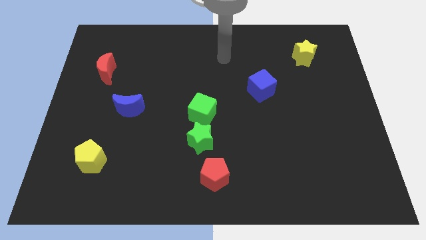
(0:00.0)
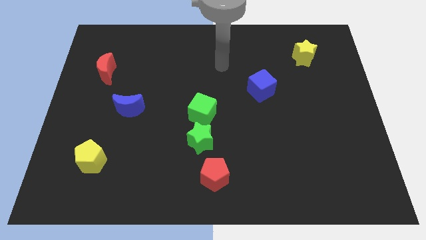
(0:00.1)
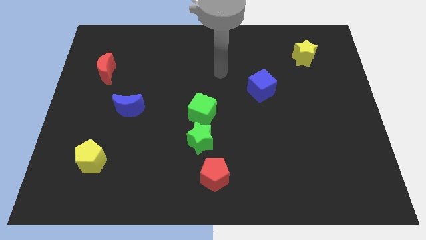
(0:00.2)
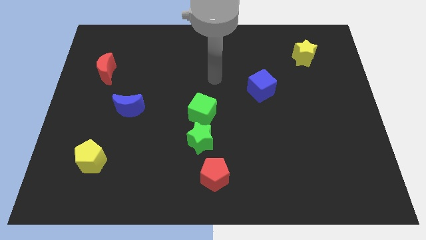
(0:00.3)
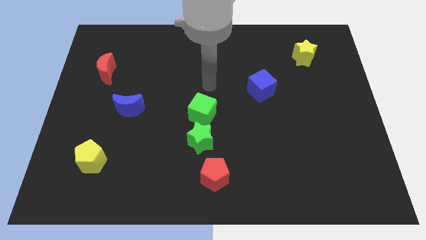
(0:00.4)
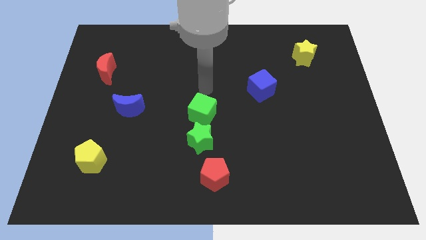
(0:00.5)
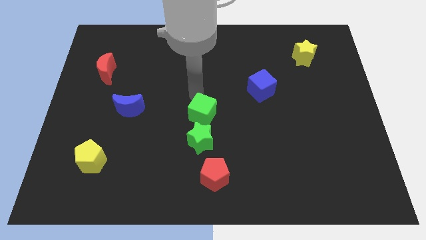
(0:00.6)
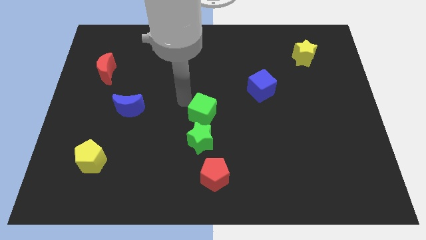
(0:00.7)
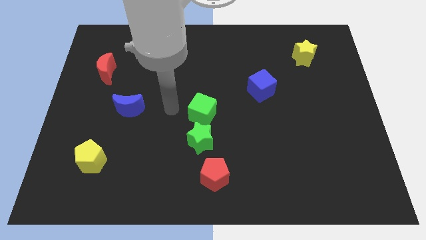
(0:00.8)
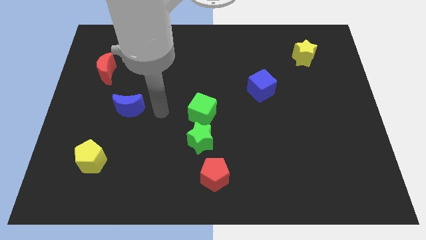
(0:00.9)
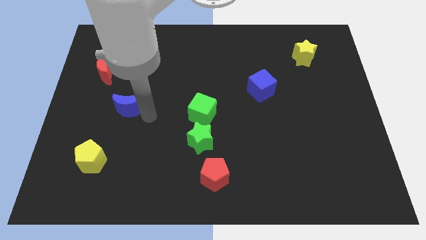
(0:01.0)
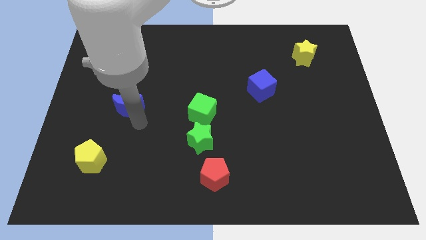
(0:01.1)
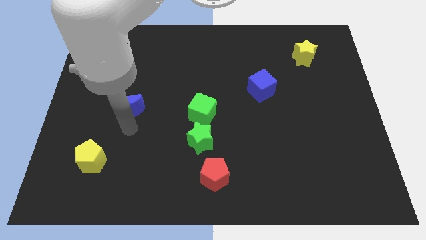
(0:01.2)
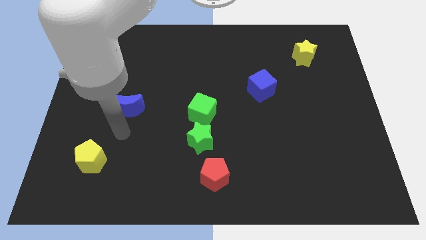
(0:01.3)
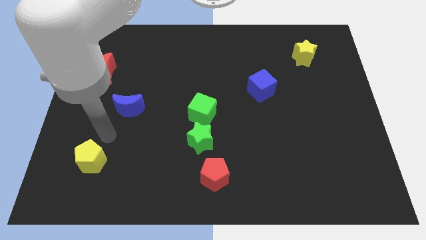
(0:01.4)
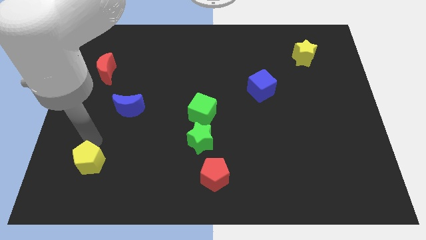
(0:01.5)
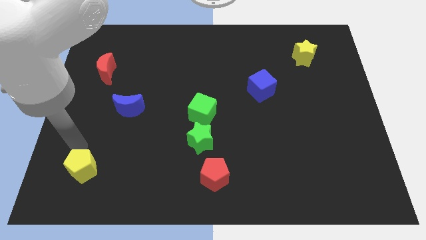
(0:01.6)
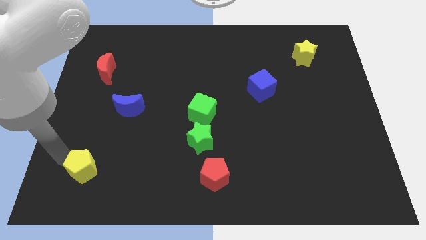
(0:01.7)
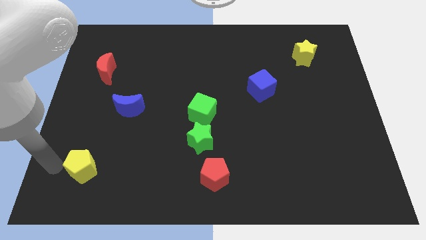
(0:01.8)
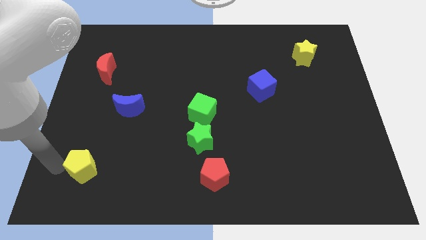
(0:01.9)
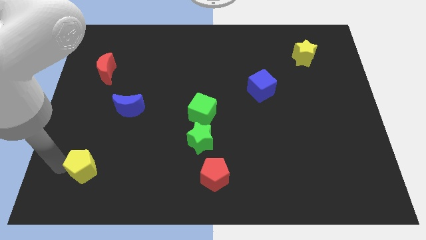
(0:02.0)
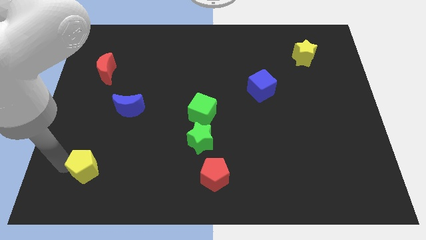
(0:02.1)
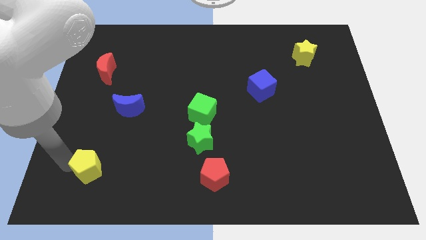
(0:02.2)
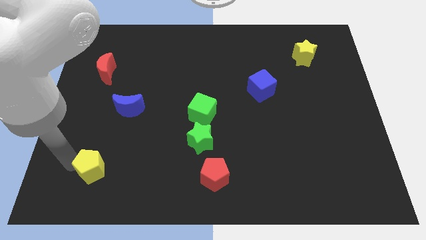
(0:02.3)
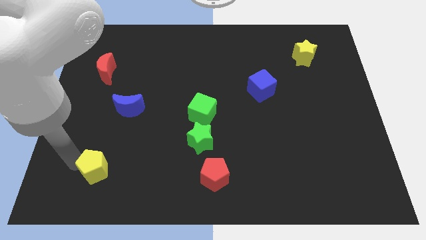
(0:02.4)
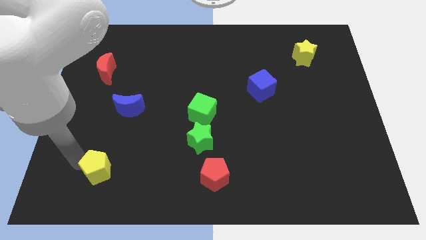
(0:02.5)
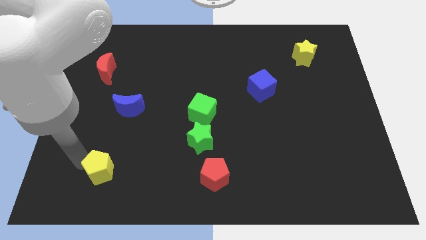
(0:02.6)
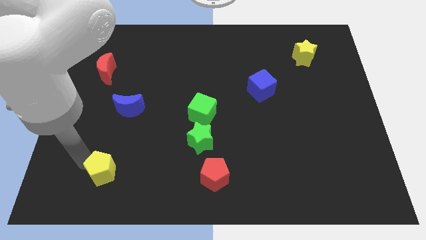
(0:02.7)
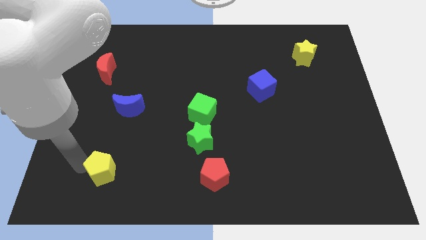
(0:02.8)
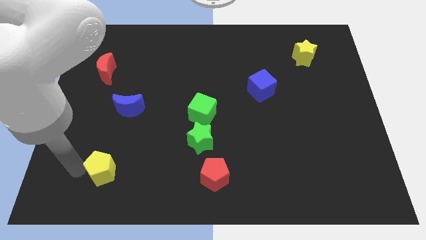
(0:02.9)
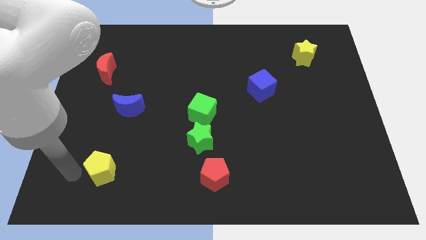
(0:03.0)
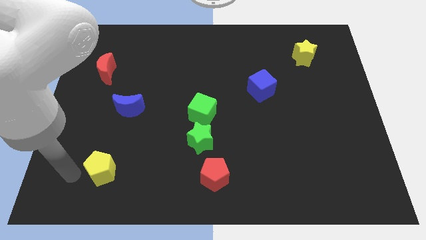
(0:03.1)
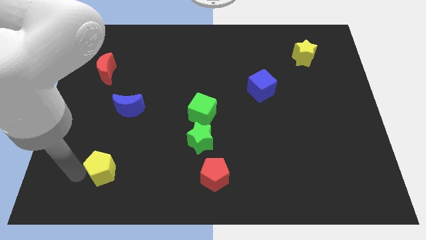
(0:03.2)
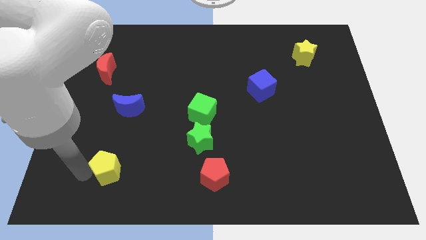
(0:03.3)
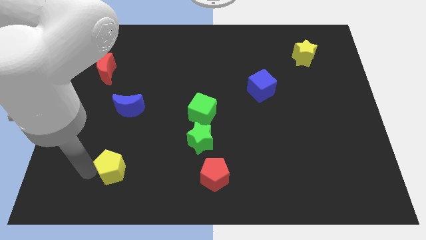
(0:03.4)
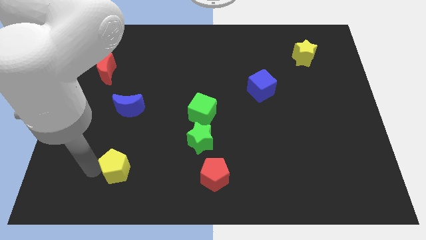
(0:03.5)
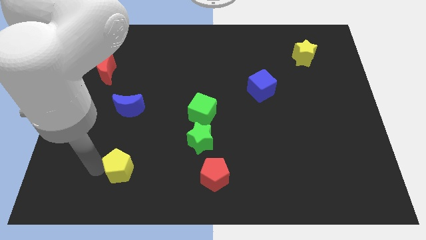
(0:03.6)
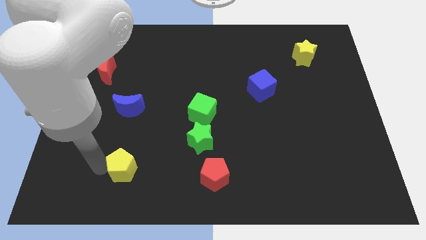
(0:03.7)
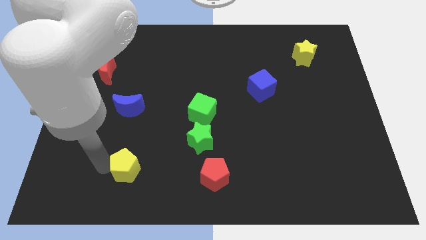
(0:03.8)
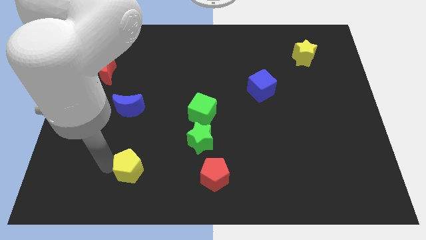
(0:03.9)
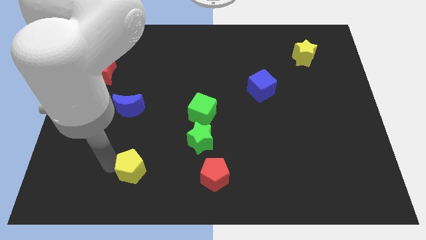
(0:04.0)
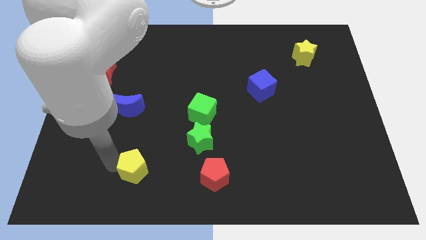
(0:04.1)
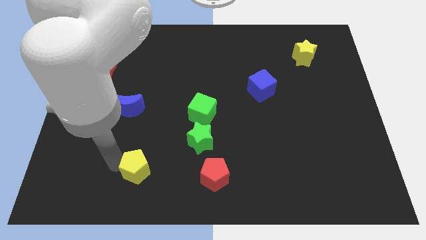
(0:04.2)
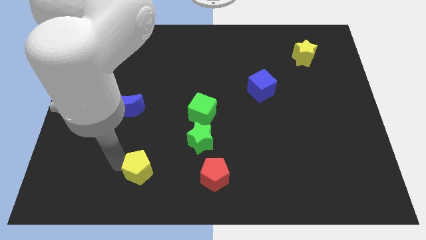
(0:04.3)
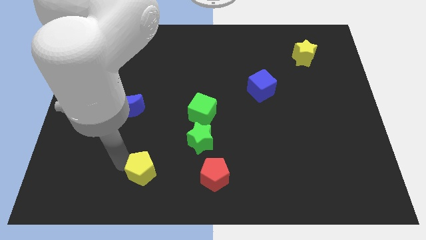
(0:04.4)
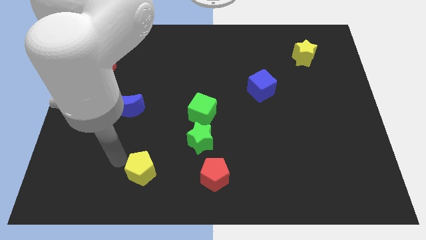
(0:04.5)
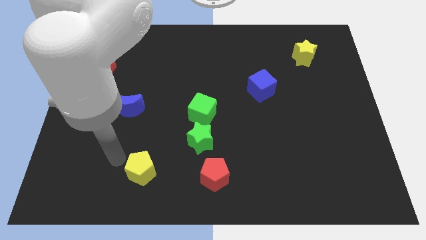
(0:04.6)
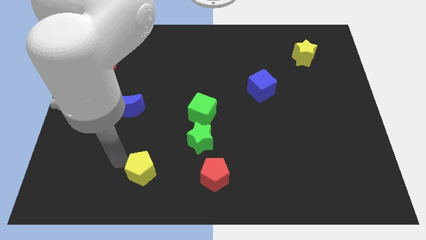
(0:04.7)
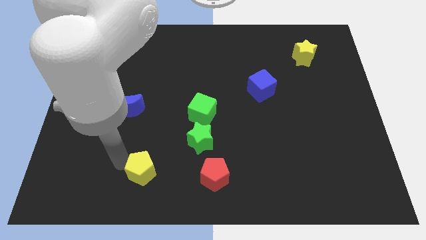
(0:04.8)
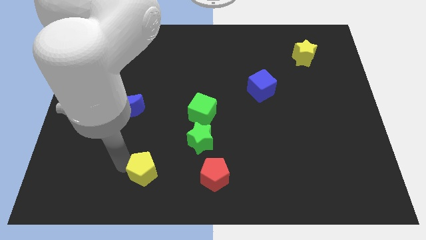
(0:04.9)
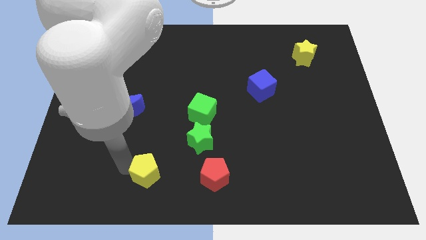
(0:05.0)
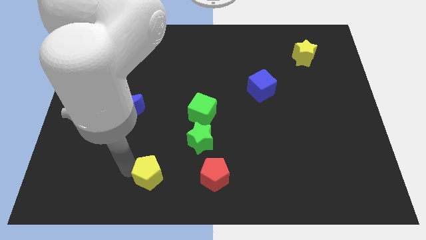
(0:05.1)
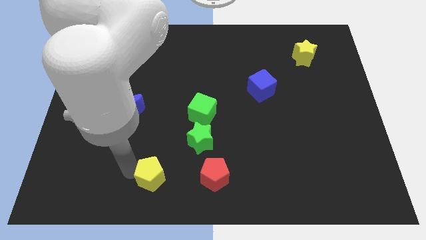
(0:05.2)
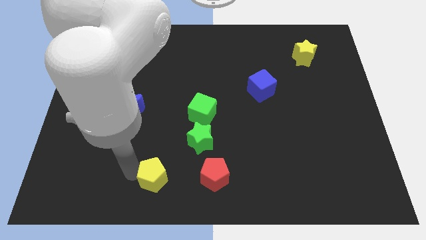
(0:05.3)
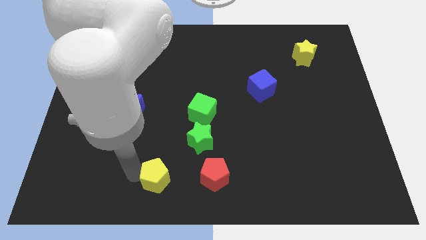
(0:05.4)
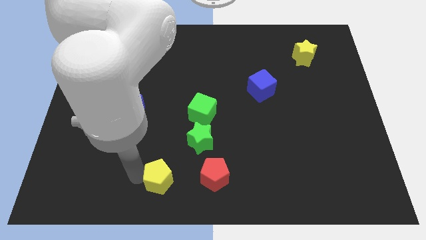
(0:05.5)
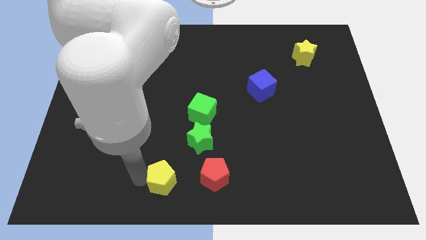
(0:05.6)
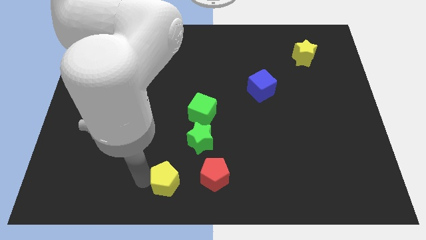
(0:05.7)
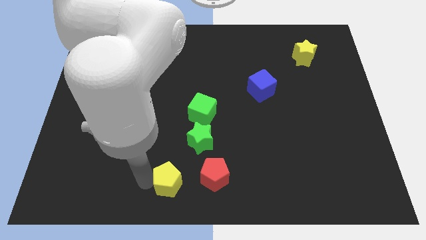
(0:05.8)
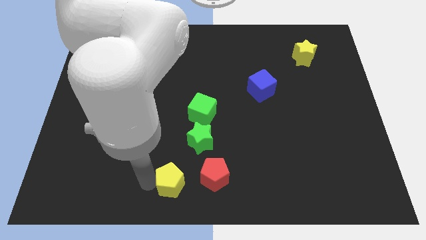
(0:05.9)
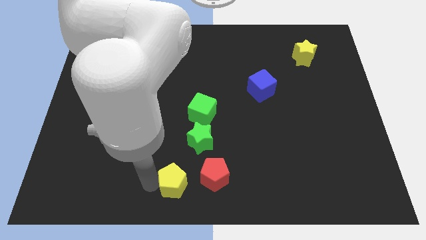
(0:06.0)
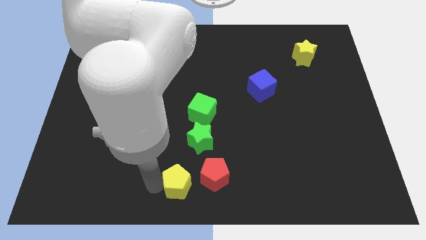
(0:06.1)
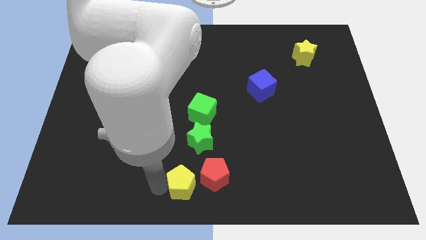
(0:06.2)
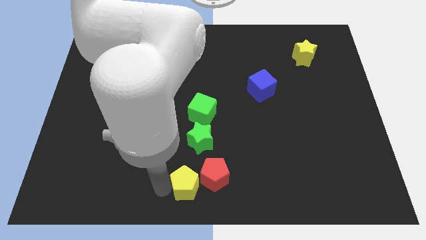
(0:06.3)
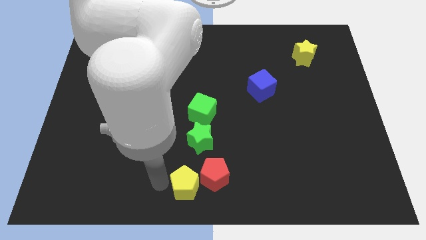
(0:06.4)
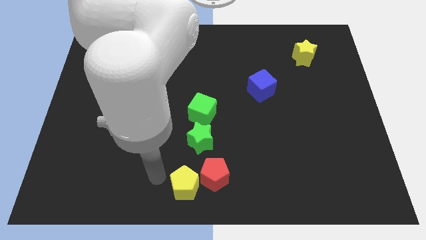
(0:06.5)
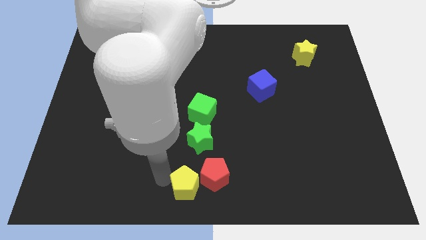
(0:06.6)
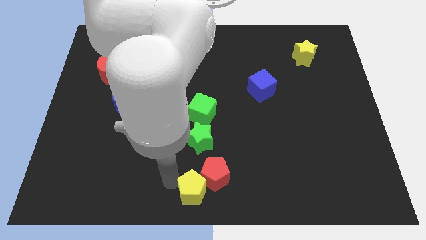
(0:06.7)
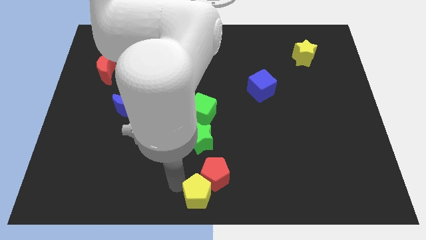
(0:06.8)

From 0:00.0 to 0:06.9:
move the yellow pentagon right

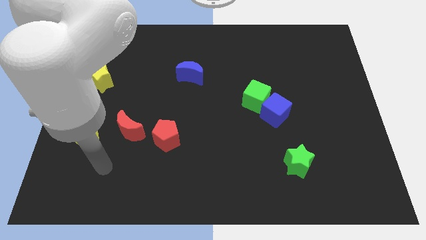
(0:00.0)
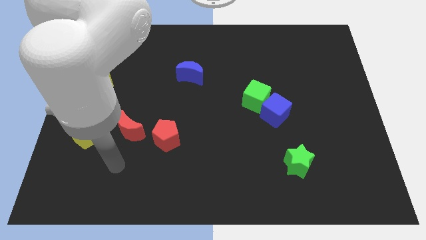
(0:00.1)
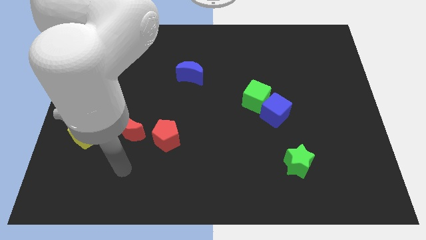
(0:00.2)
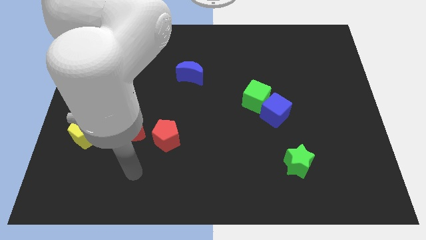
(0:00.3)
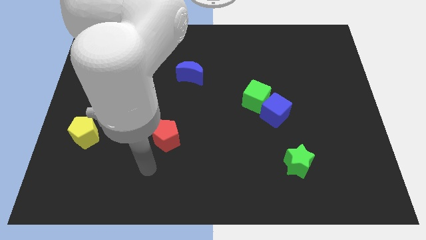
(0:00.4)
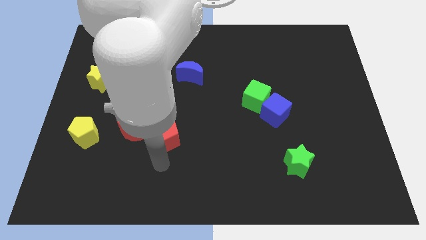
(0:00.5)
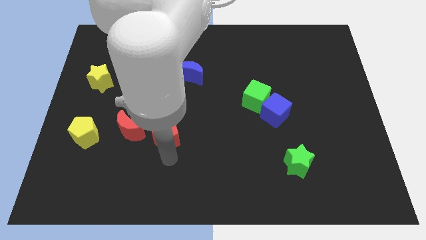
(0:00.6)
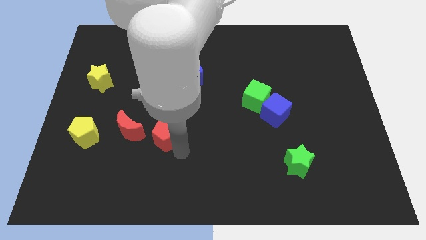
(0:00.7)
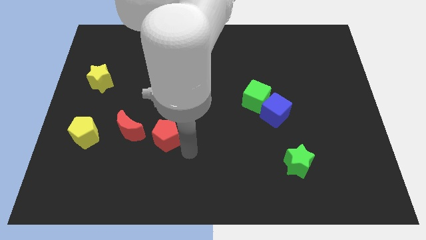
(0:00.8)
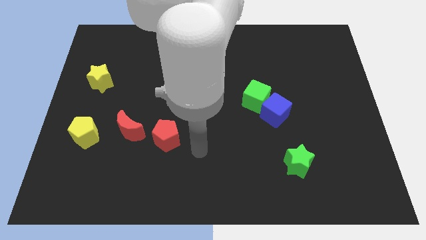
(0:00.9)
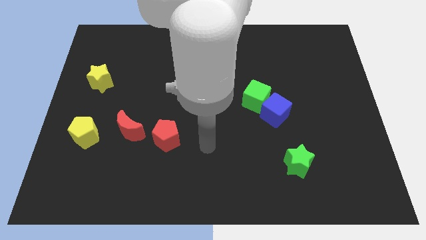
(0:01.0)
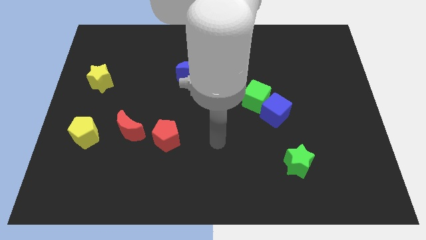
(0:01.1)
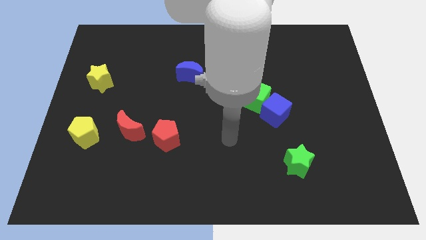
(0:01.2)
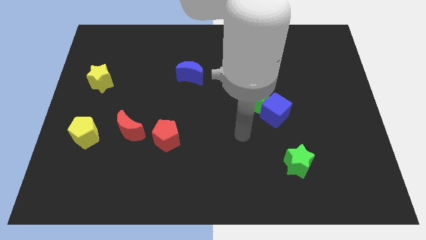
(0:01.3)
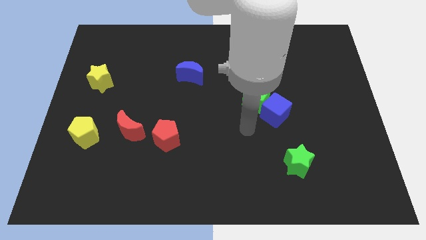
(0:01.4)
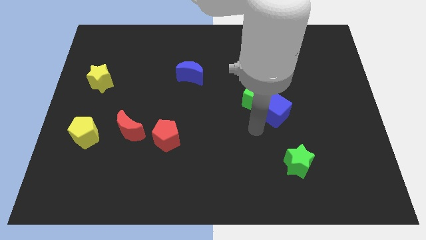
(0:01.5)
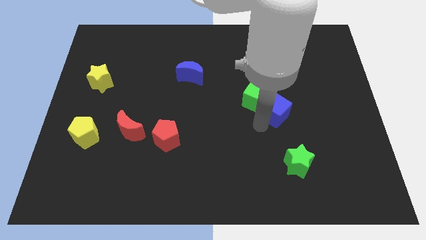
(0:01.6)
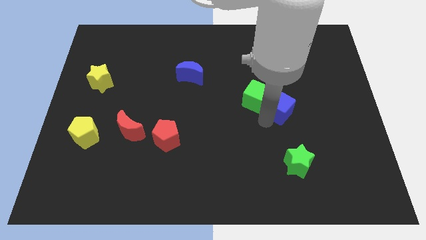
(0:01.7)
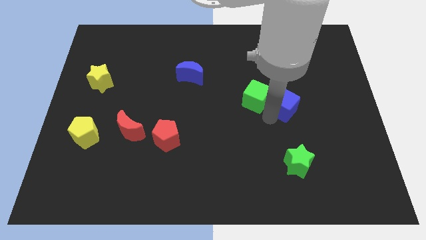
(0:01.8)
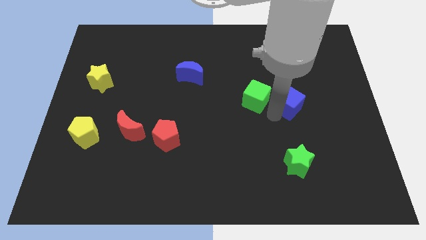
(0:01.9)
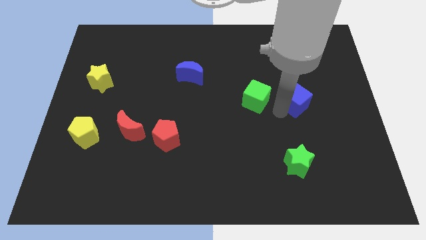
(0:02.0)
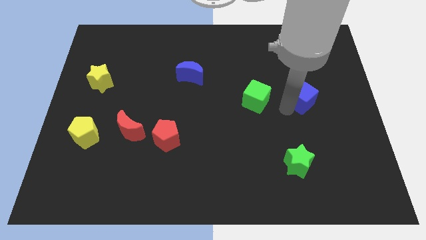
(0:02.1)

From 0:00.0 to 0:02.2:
push the blue cube somewhat up and right
